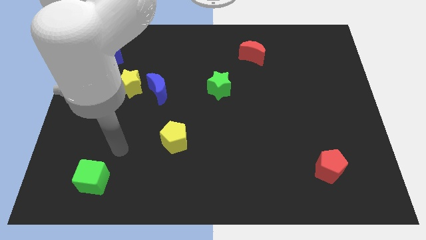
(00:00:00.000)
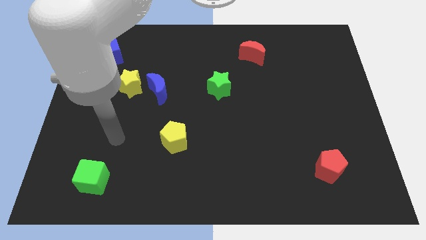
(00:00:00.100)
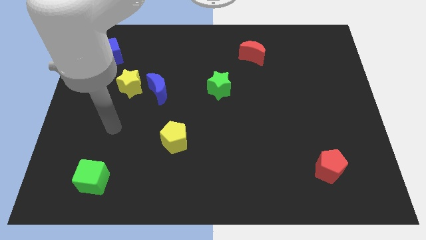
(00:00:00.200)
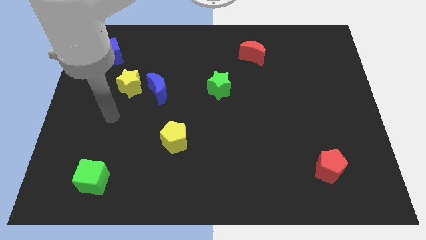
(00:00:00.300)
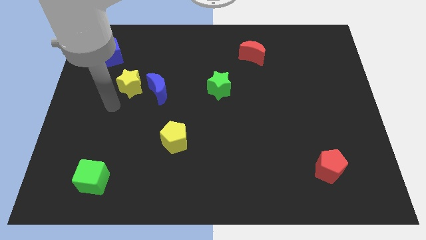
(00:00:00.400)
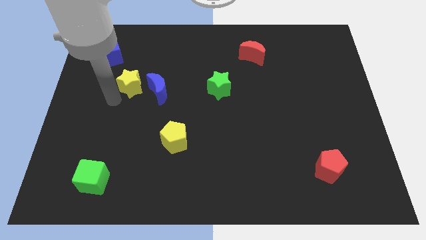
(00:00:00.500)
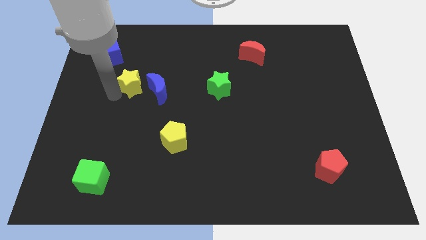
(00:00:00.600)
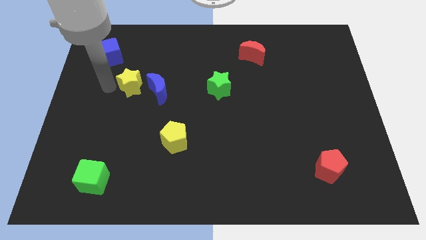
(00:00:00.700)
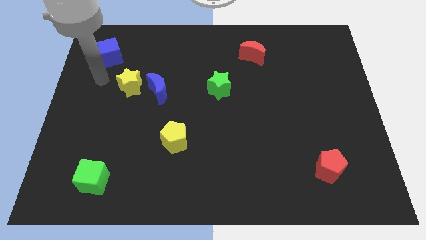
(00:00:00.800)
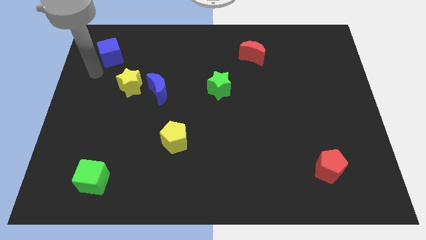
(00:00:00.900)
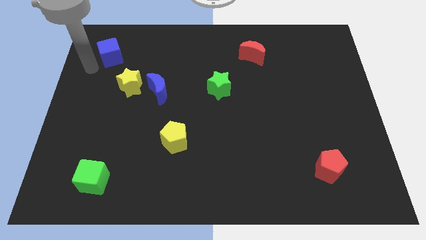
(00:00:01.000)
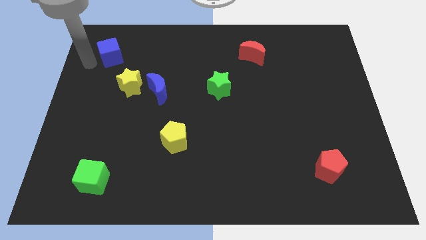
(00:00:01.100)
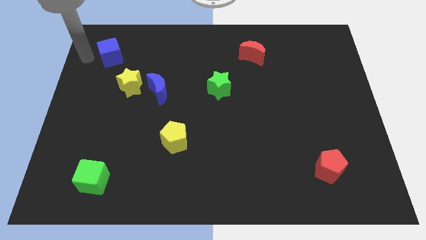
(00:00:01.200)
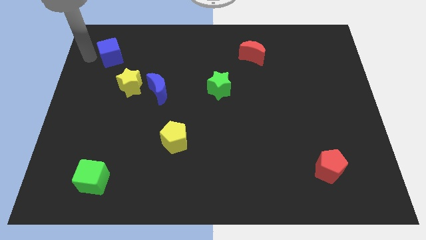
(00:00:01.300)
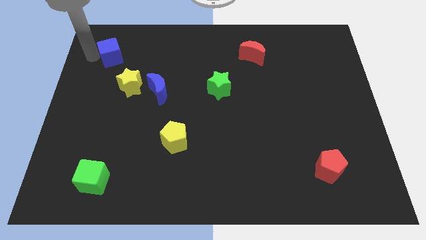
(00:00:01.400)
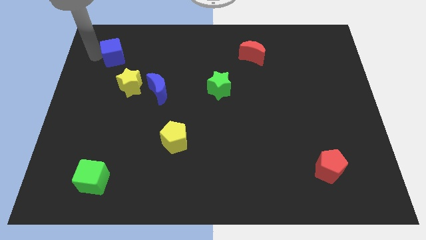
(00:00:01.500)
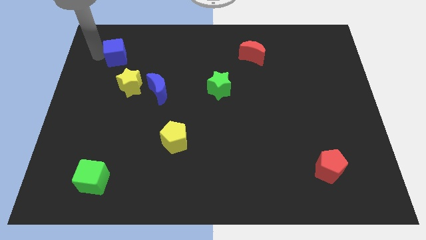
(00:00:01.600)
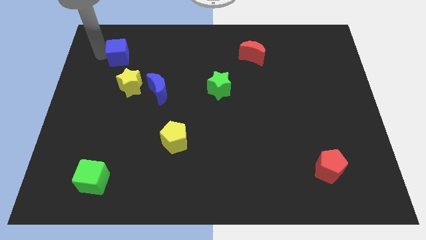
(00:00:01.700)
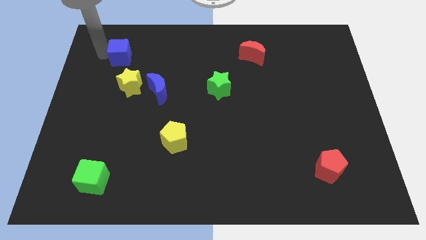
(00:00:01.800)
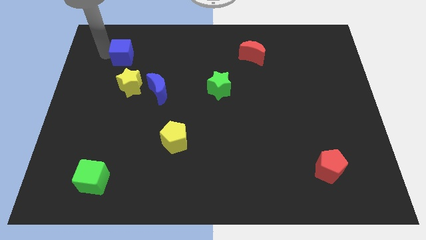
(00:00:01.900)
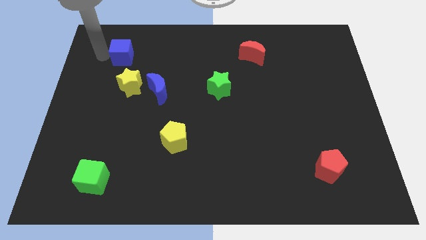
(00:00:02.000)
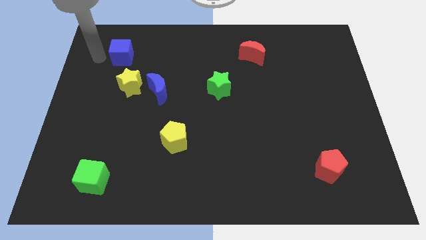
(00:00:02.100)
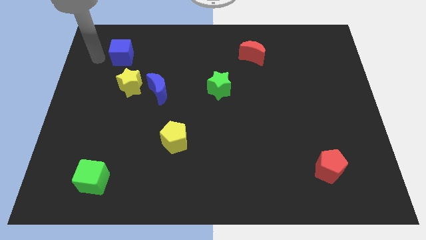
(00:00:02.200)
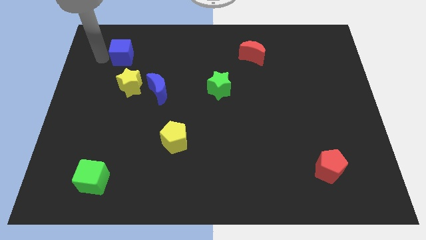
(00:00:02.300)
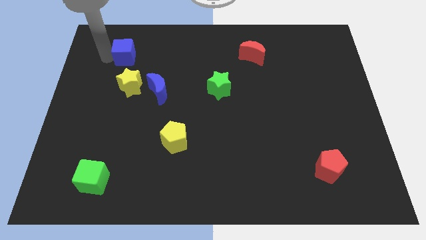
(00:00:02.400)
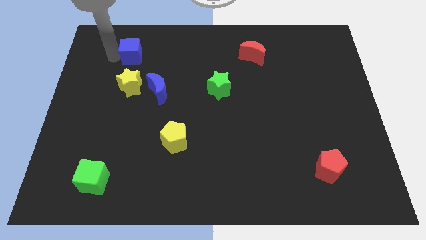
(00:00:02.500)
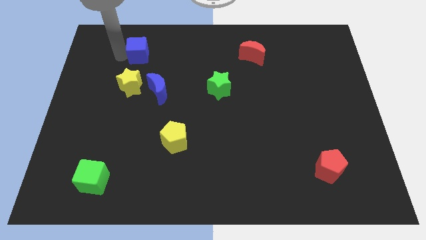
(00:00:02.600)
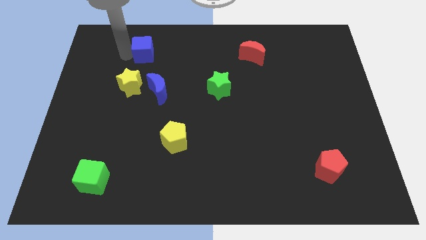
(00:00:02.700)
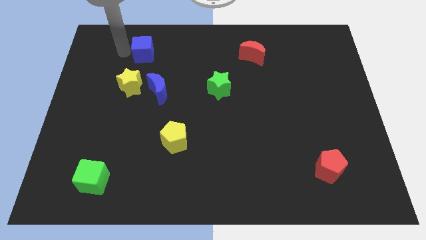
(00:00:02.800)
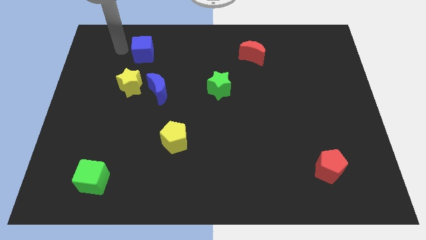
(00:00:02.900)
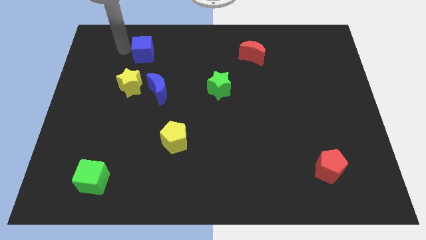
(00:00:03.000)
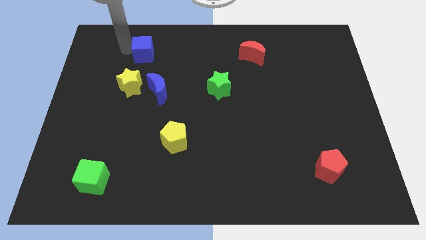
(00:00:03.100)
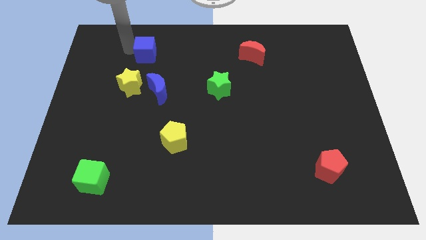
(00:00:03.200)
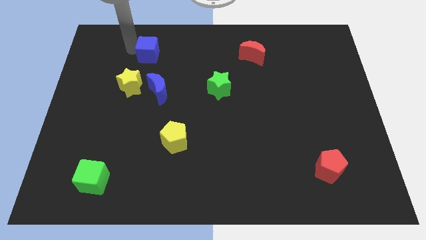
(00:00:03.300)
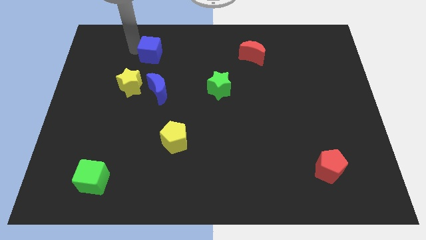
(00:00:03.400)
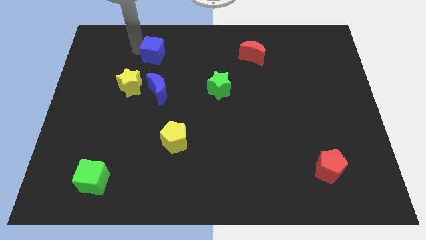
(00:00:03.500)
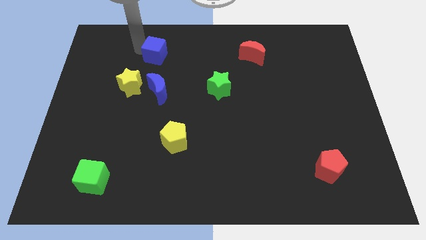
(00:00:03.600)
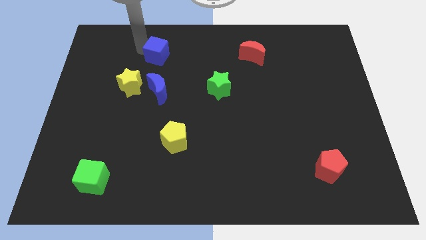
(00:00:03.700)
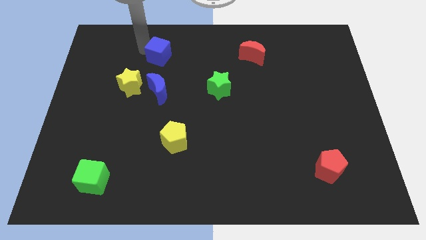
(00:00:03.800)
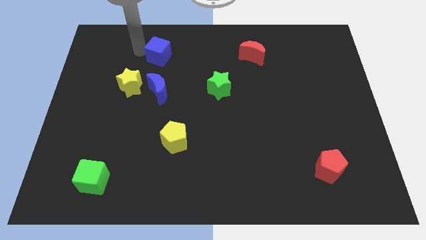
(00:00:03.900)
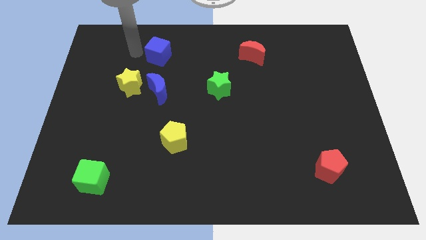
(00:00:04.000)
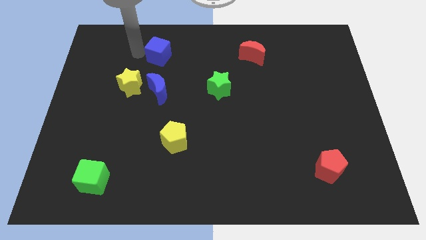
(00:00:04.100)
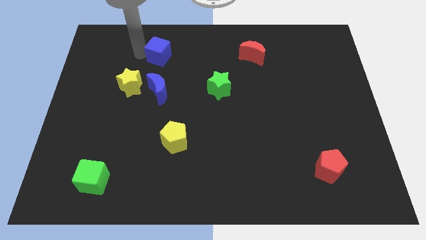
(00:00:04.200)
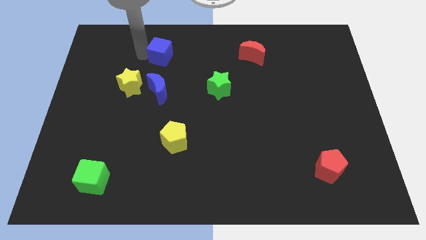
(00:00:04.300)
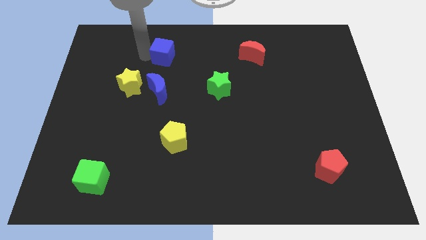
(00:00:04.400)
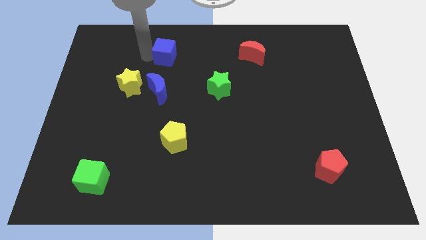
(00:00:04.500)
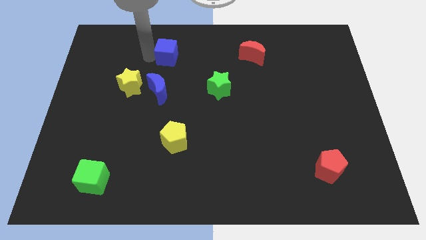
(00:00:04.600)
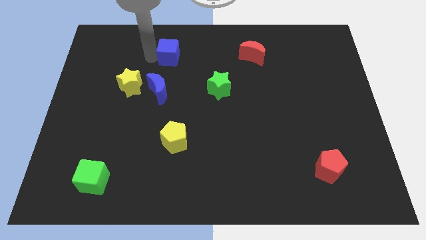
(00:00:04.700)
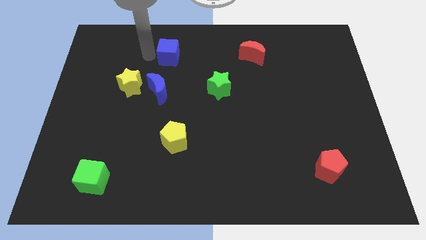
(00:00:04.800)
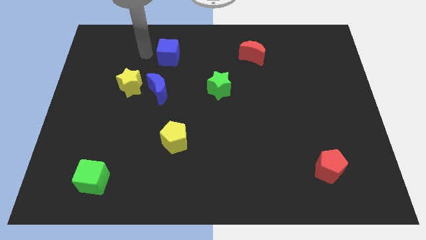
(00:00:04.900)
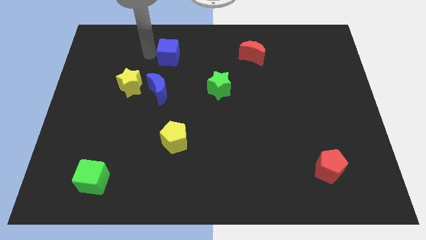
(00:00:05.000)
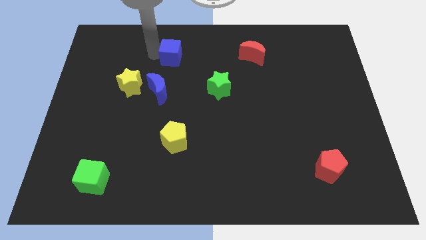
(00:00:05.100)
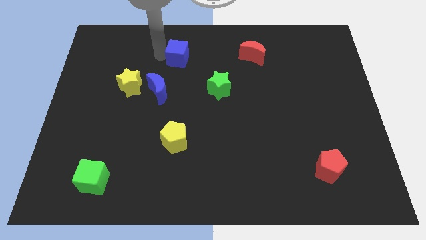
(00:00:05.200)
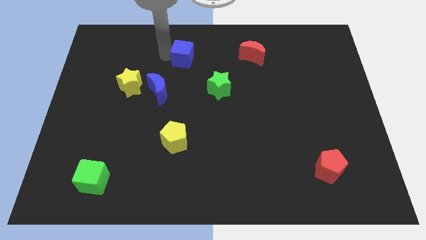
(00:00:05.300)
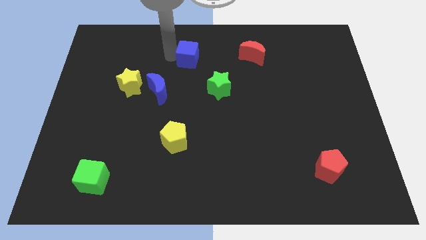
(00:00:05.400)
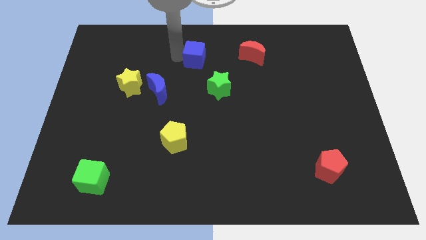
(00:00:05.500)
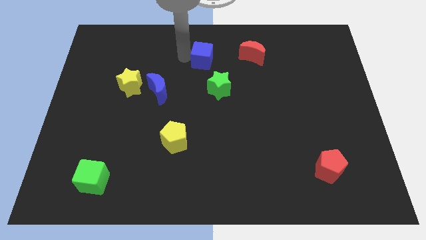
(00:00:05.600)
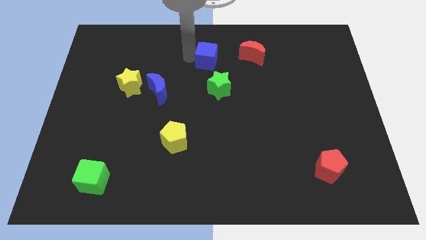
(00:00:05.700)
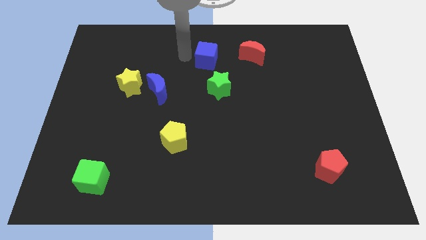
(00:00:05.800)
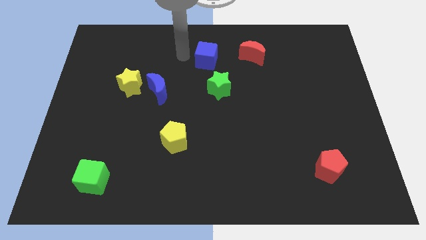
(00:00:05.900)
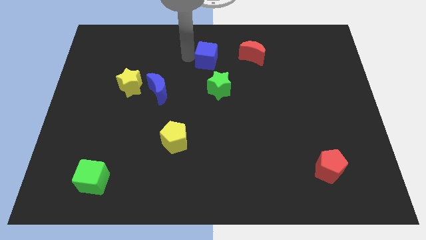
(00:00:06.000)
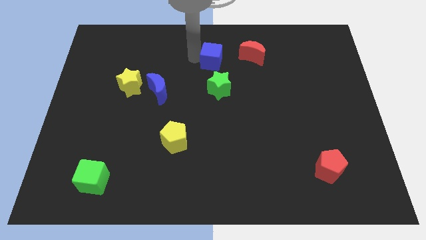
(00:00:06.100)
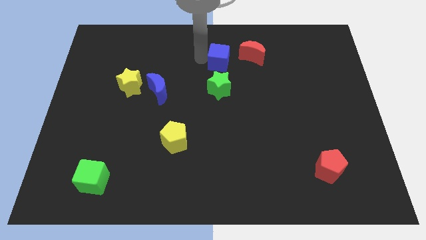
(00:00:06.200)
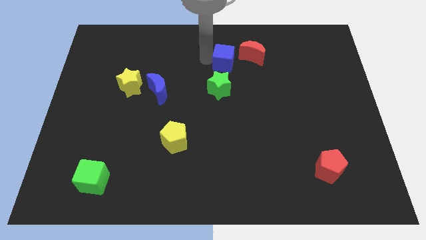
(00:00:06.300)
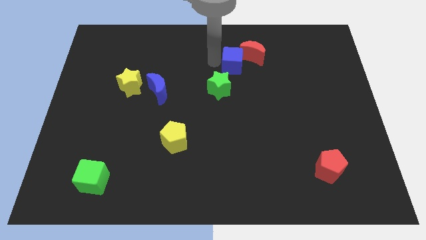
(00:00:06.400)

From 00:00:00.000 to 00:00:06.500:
push the blue cube next to the red moon

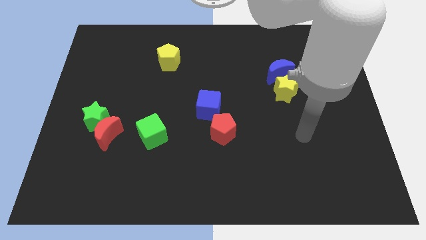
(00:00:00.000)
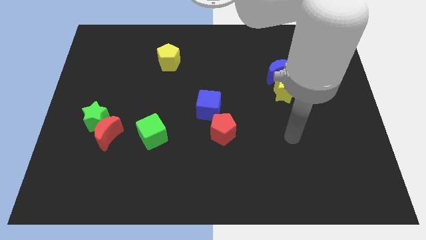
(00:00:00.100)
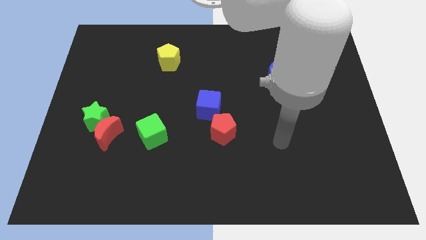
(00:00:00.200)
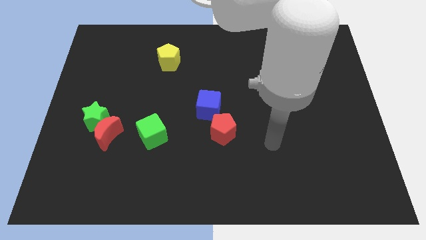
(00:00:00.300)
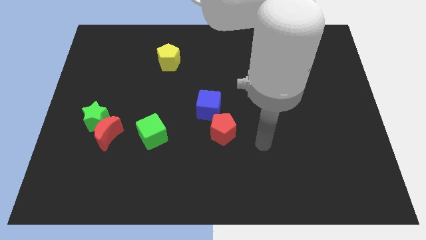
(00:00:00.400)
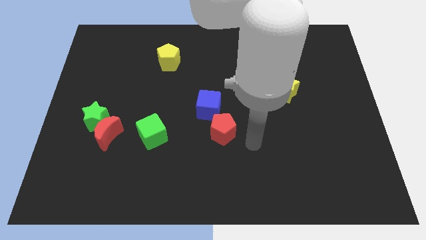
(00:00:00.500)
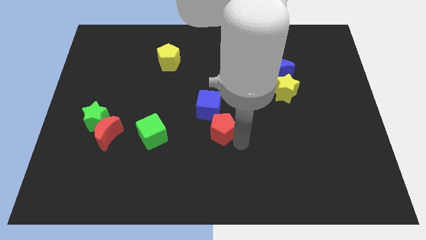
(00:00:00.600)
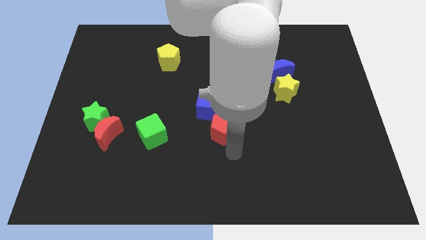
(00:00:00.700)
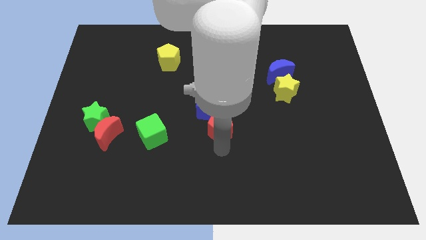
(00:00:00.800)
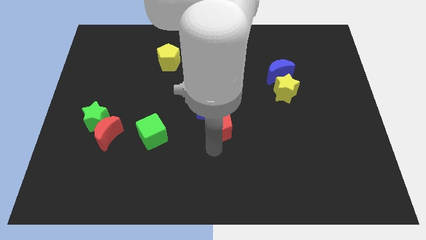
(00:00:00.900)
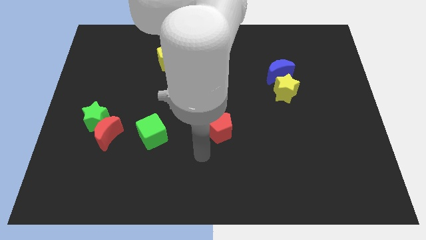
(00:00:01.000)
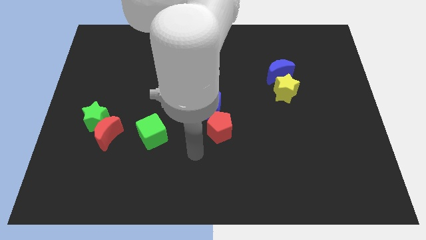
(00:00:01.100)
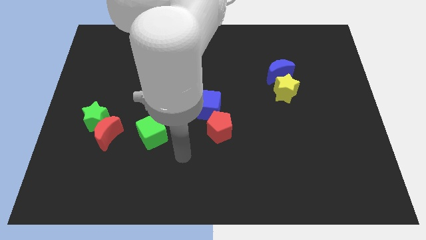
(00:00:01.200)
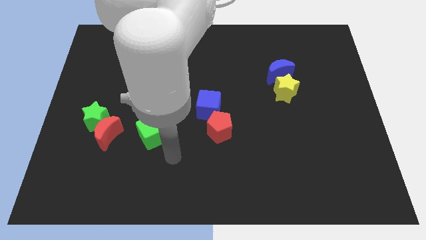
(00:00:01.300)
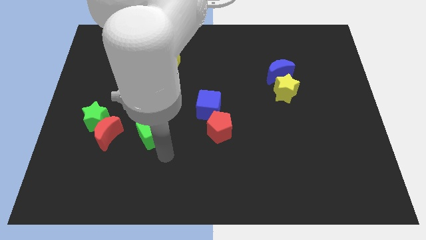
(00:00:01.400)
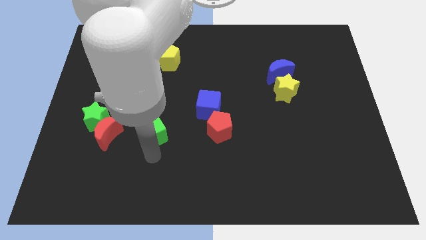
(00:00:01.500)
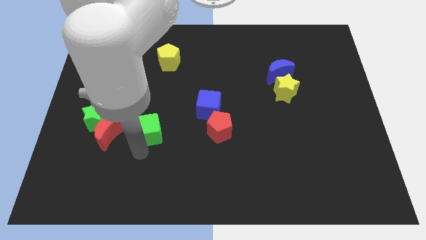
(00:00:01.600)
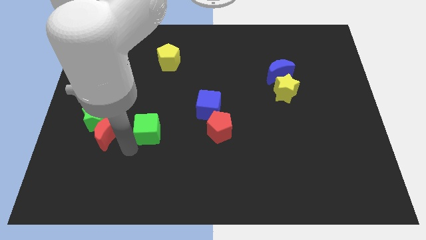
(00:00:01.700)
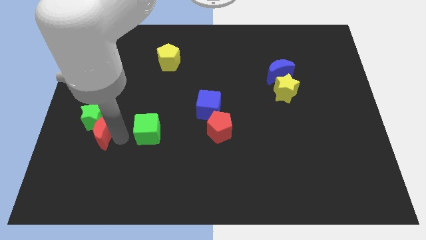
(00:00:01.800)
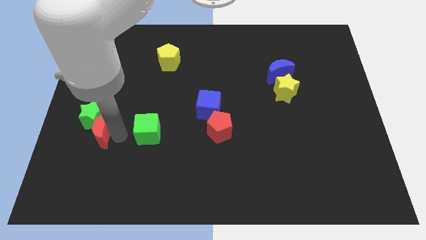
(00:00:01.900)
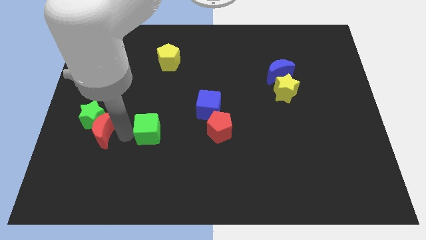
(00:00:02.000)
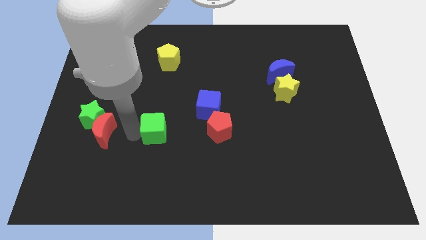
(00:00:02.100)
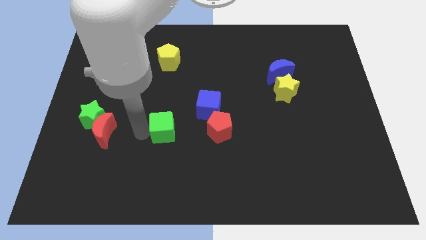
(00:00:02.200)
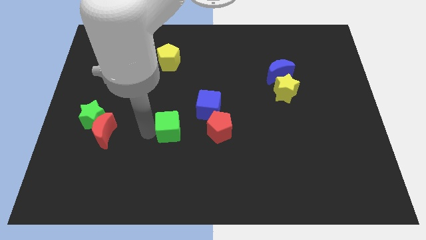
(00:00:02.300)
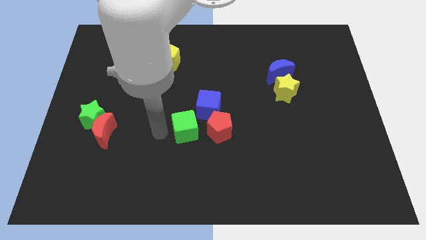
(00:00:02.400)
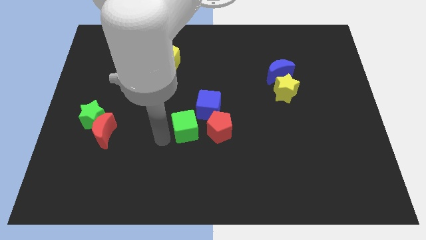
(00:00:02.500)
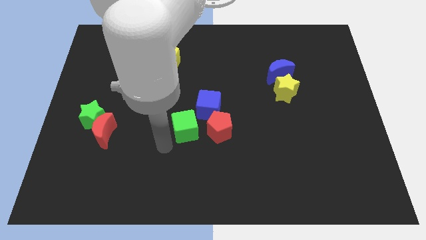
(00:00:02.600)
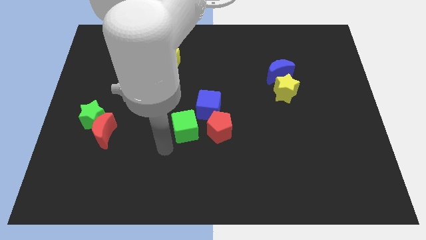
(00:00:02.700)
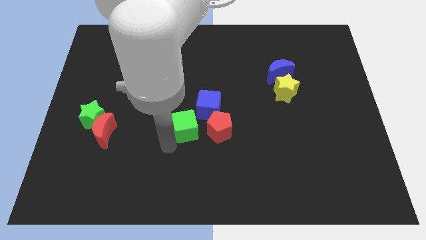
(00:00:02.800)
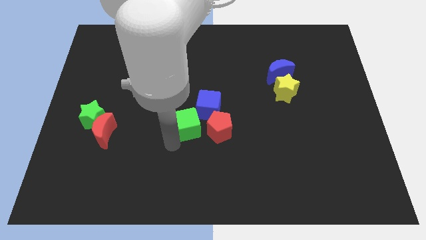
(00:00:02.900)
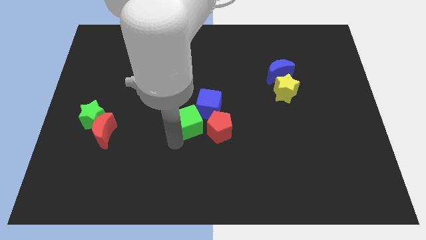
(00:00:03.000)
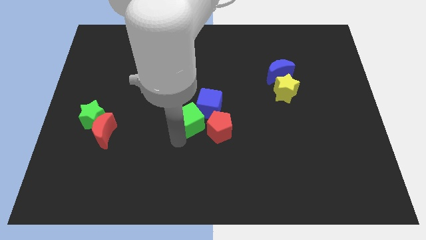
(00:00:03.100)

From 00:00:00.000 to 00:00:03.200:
slide the green cube close to the blue cube
